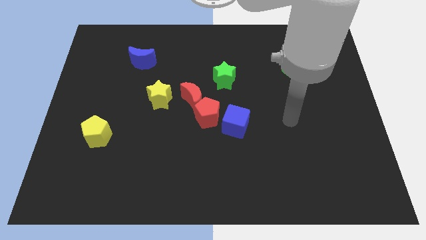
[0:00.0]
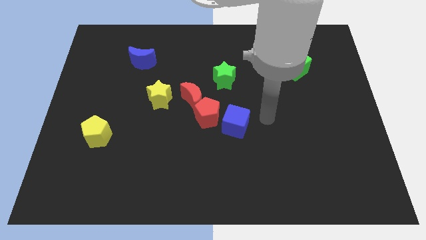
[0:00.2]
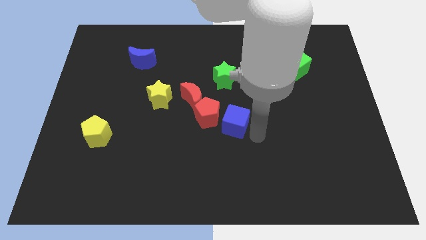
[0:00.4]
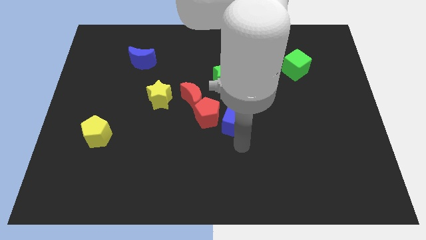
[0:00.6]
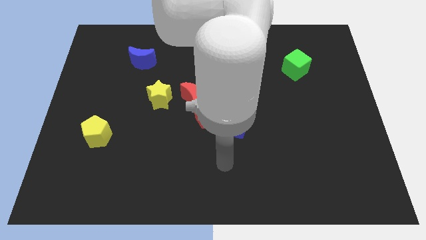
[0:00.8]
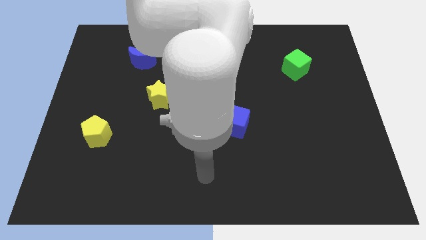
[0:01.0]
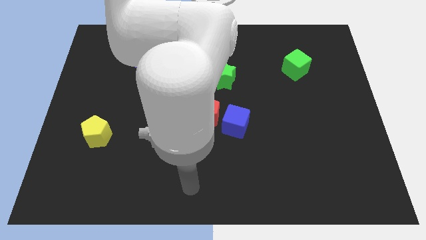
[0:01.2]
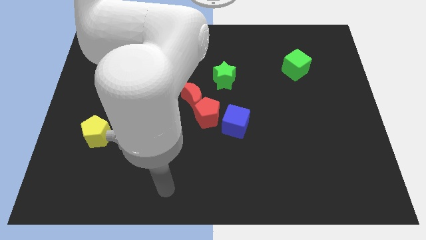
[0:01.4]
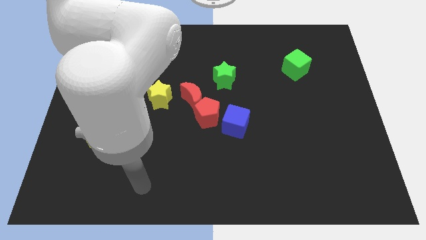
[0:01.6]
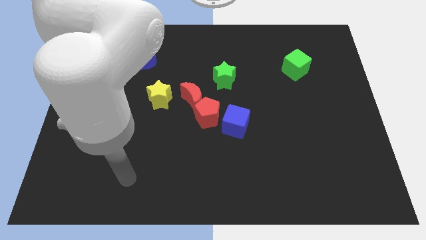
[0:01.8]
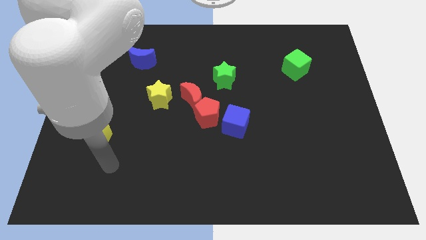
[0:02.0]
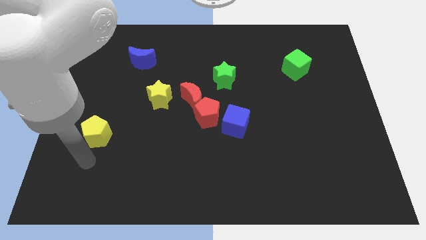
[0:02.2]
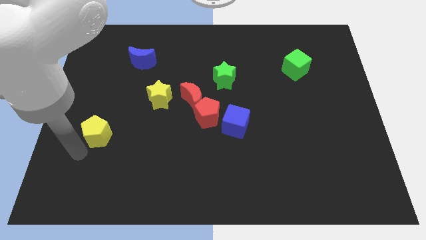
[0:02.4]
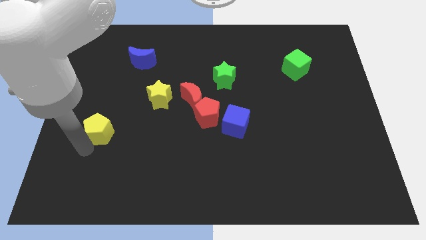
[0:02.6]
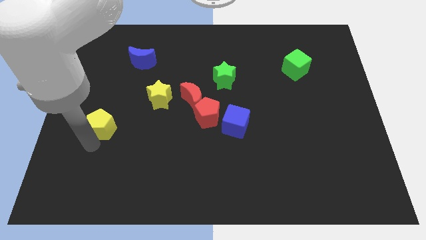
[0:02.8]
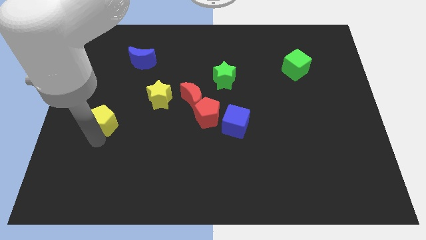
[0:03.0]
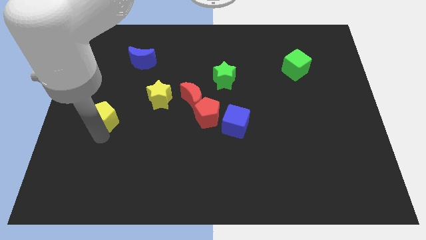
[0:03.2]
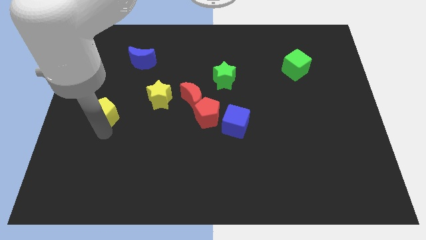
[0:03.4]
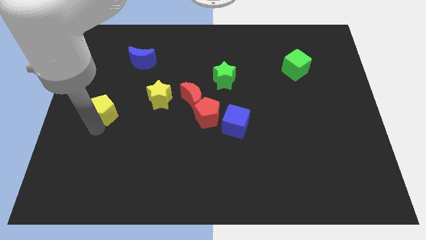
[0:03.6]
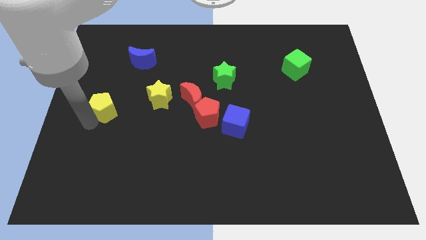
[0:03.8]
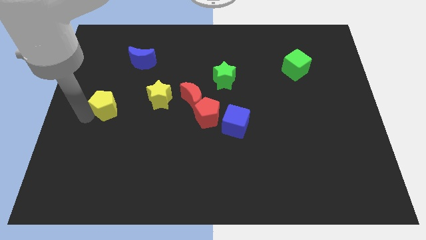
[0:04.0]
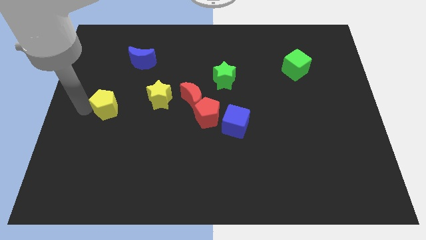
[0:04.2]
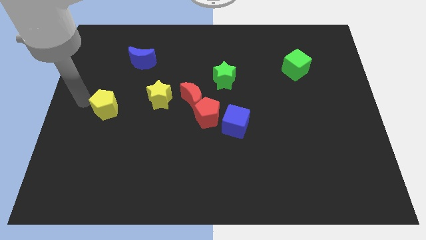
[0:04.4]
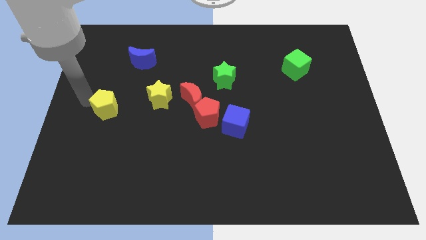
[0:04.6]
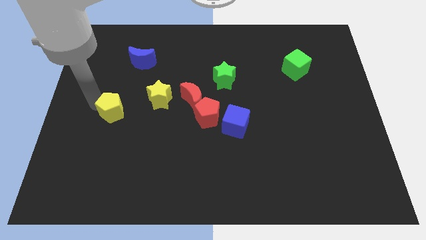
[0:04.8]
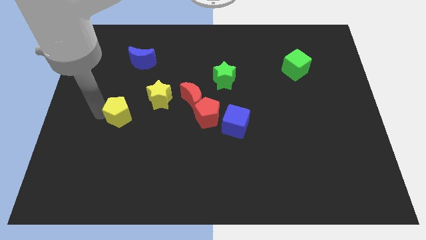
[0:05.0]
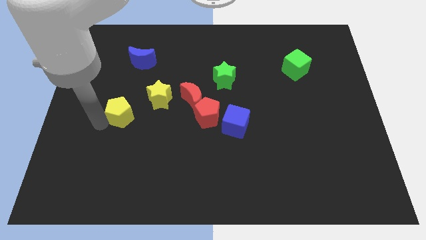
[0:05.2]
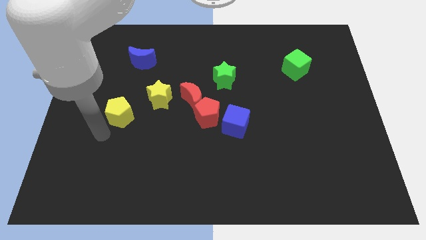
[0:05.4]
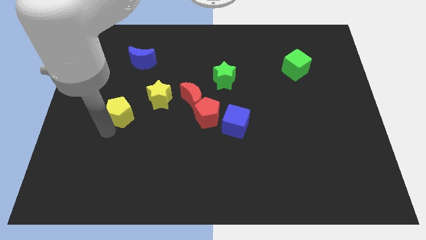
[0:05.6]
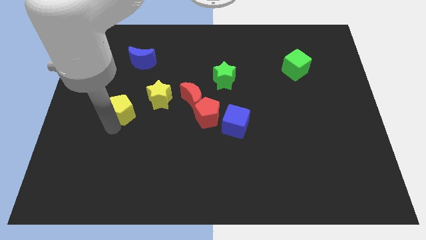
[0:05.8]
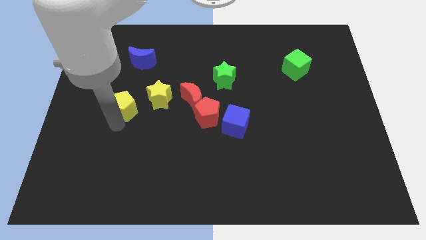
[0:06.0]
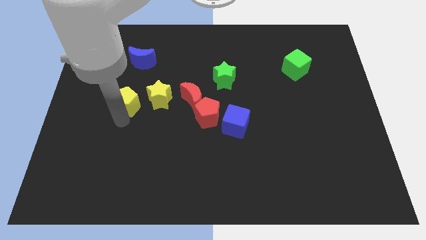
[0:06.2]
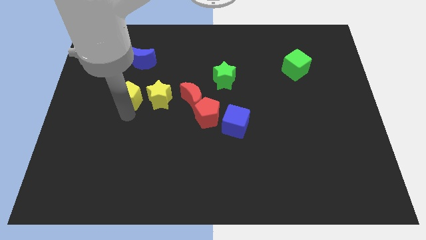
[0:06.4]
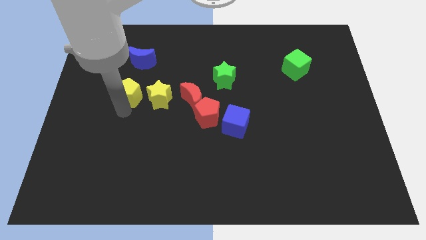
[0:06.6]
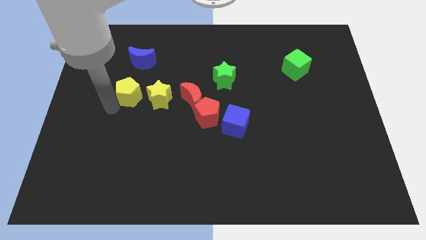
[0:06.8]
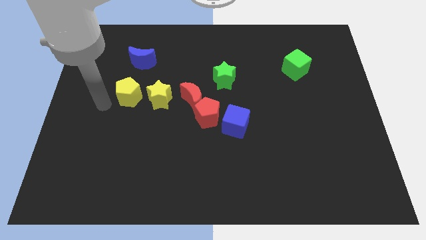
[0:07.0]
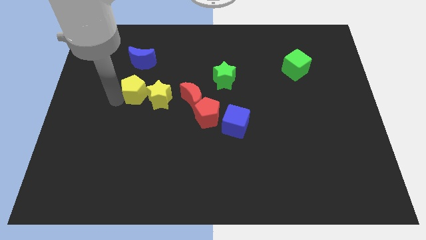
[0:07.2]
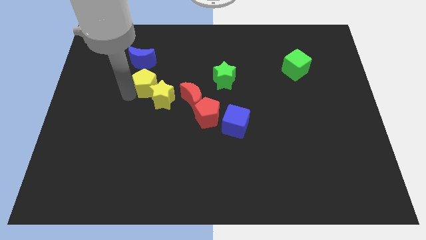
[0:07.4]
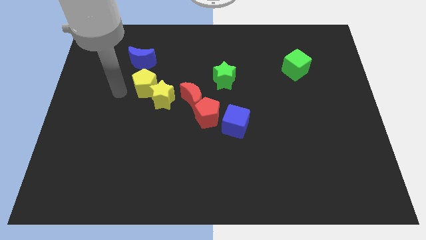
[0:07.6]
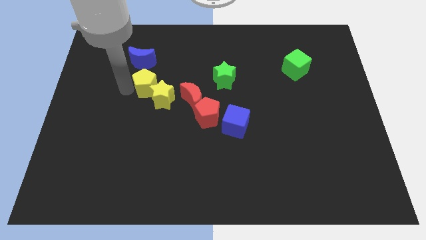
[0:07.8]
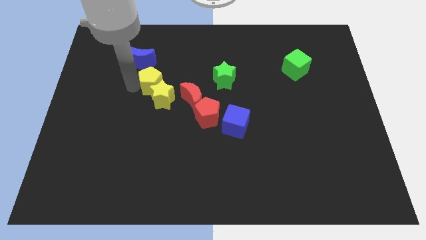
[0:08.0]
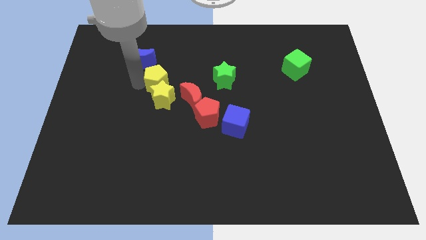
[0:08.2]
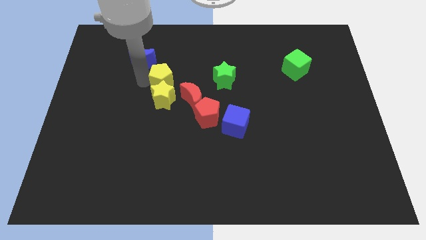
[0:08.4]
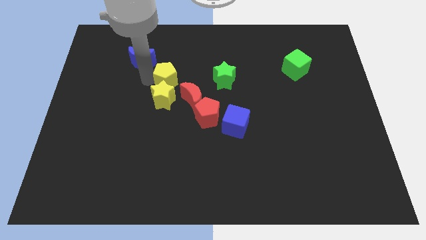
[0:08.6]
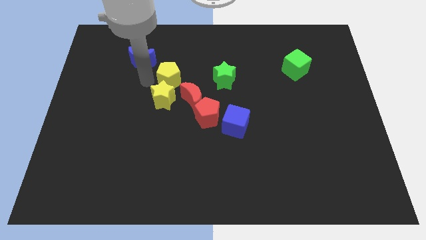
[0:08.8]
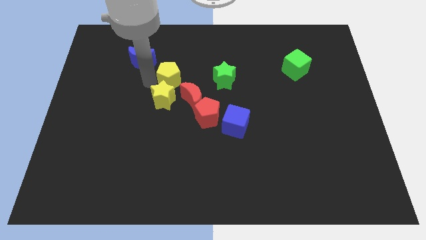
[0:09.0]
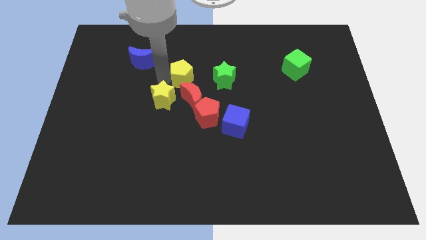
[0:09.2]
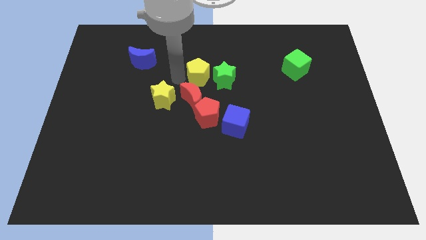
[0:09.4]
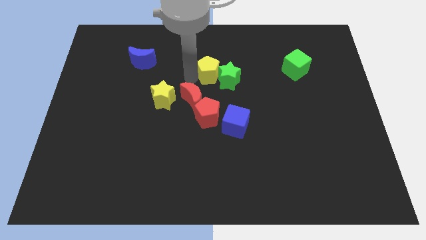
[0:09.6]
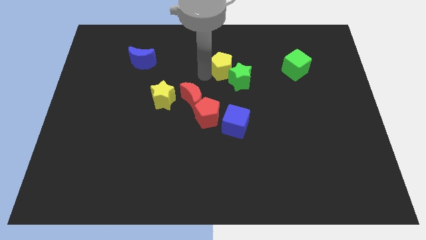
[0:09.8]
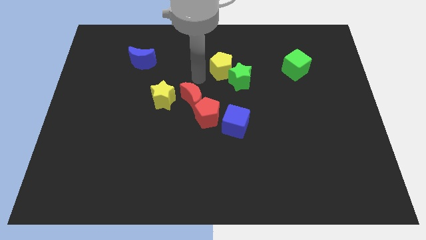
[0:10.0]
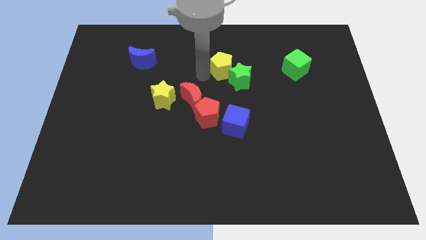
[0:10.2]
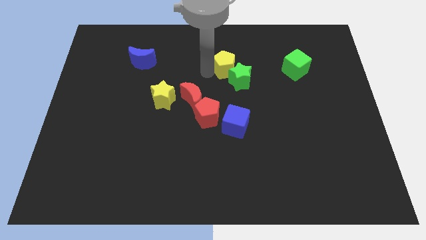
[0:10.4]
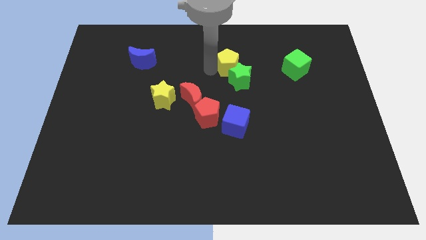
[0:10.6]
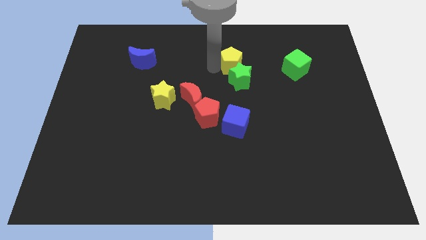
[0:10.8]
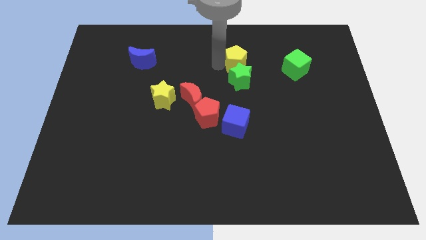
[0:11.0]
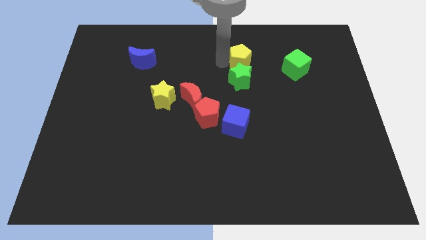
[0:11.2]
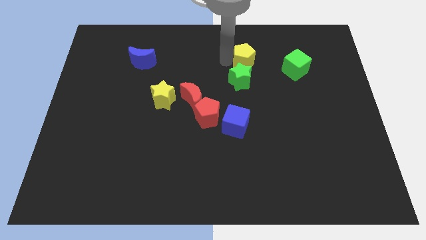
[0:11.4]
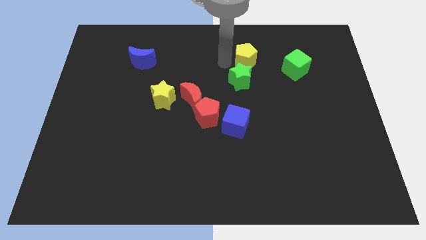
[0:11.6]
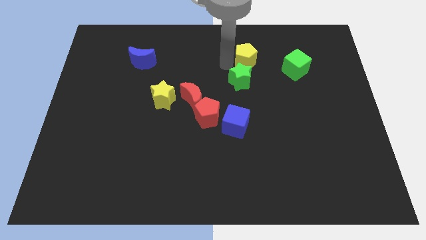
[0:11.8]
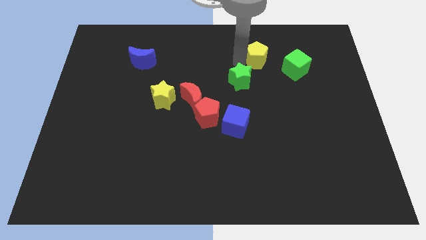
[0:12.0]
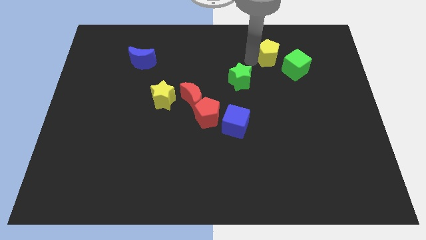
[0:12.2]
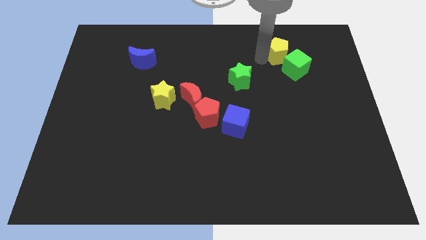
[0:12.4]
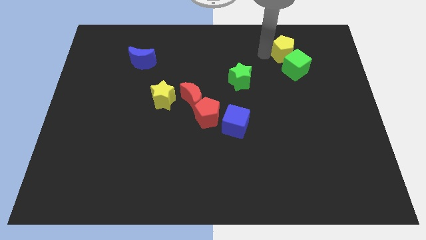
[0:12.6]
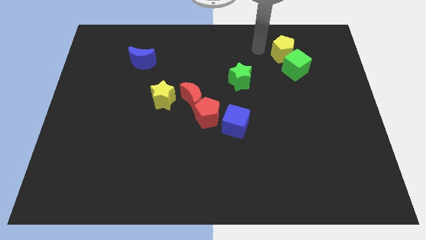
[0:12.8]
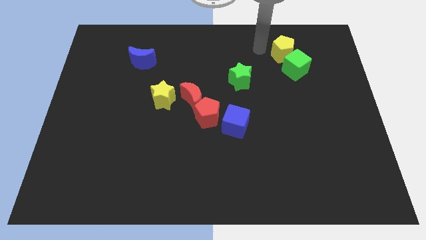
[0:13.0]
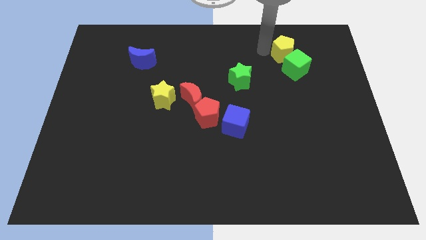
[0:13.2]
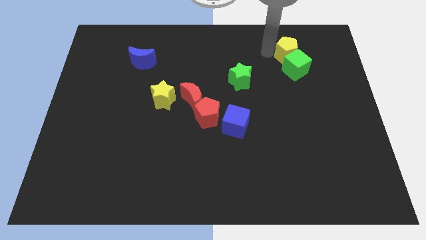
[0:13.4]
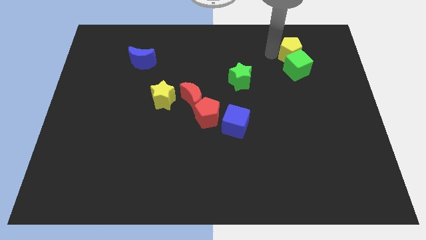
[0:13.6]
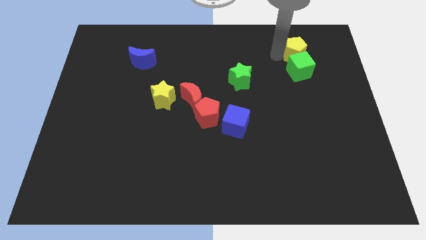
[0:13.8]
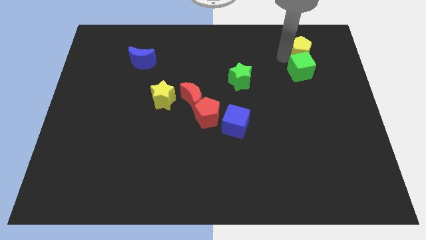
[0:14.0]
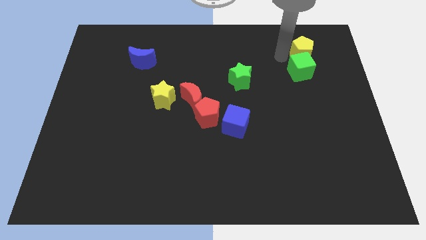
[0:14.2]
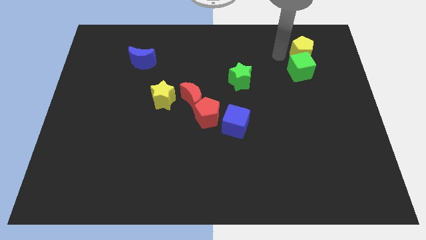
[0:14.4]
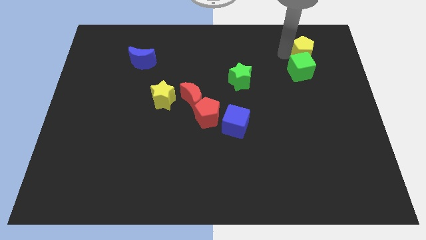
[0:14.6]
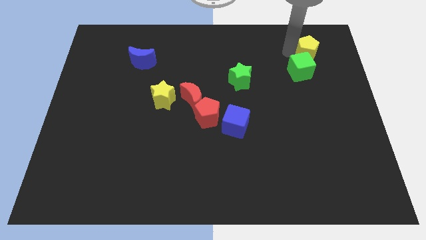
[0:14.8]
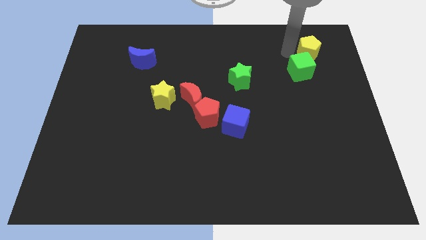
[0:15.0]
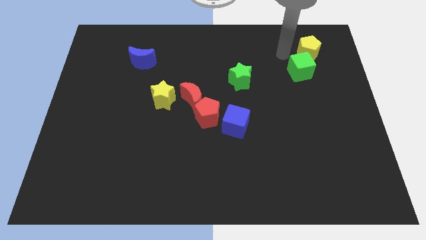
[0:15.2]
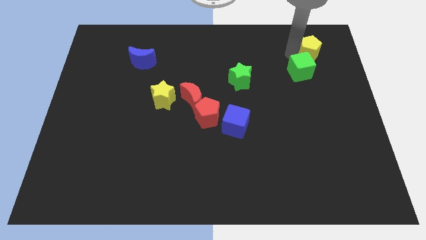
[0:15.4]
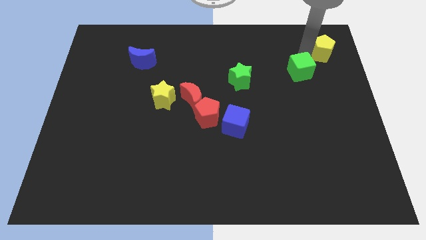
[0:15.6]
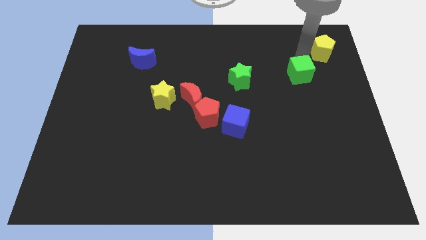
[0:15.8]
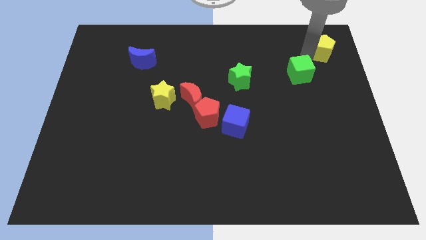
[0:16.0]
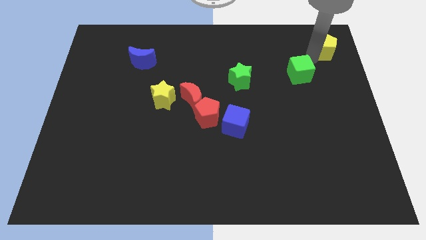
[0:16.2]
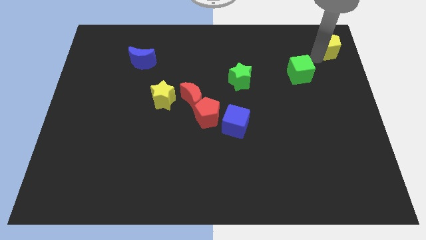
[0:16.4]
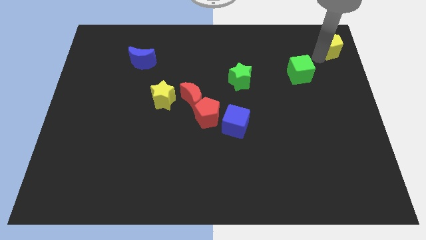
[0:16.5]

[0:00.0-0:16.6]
put the yellow pentagon to the top right
